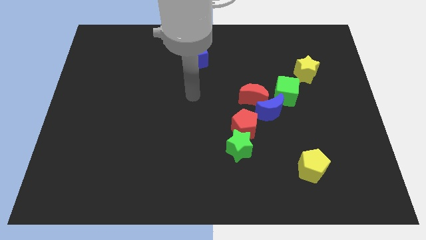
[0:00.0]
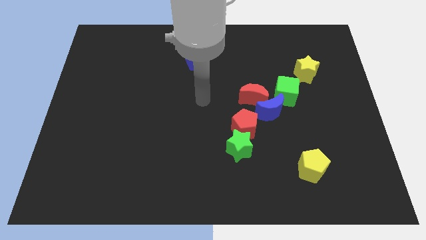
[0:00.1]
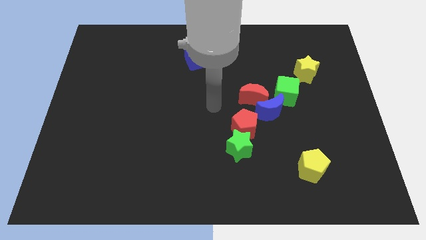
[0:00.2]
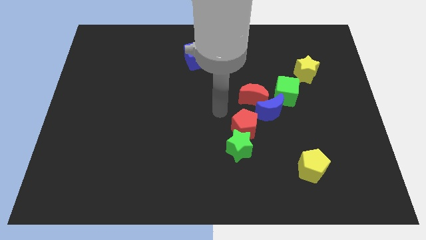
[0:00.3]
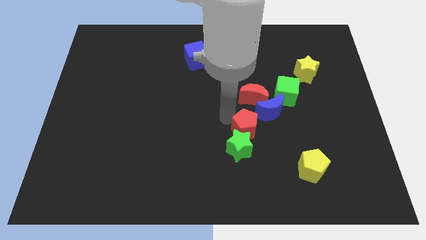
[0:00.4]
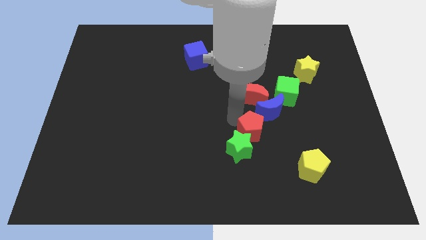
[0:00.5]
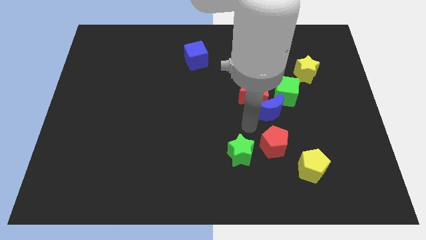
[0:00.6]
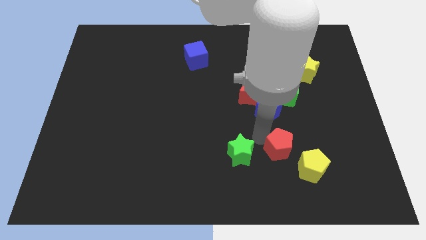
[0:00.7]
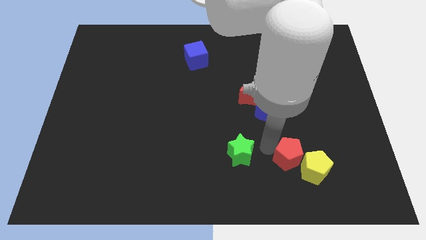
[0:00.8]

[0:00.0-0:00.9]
separate the green star from the red pentagon

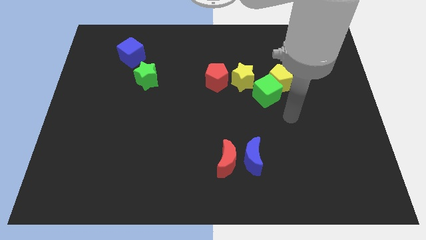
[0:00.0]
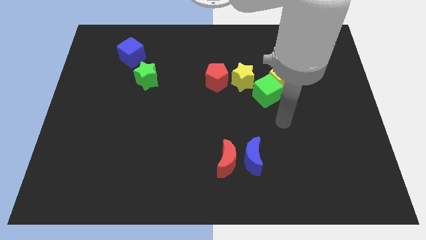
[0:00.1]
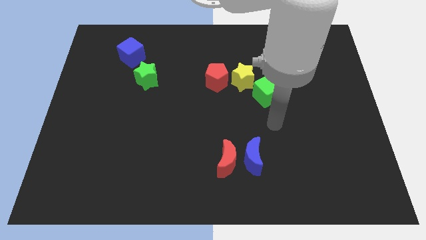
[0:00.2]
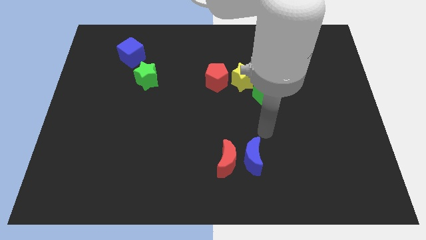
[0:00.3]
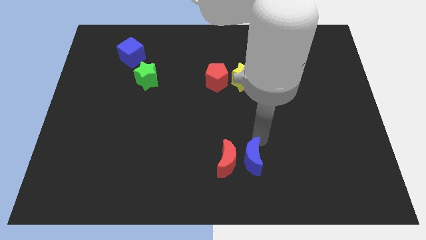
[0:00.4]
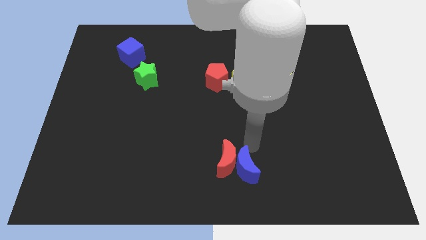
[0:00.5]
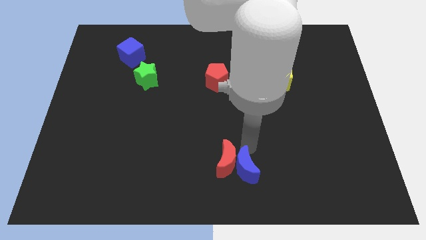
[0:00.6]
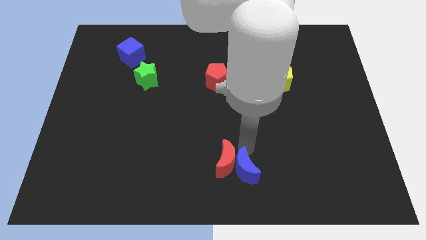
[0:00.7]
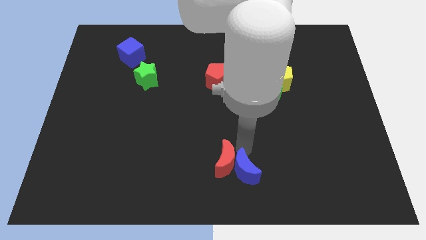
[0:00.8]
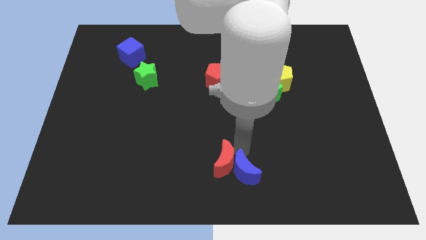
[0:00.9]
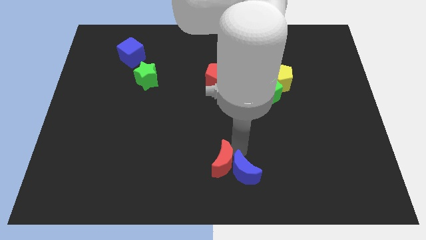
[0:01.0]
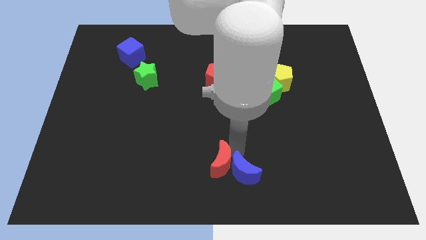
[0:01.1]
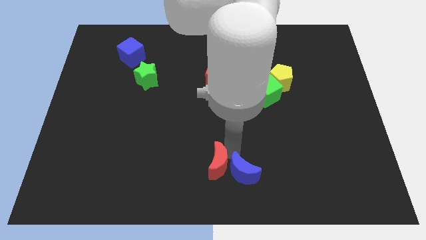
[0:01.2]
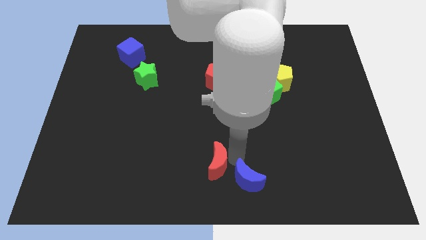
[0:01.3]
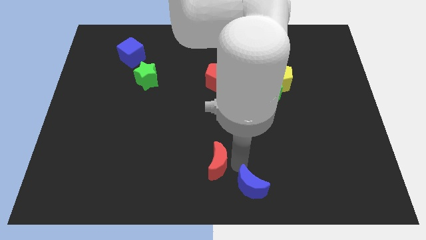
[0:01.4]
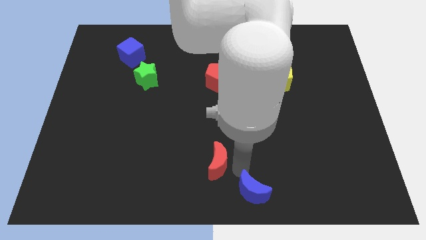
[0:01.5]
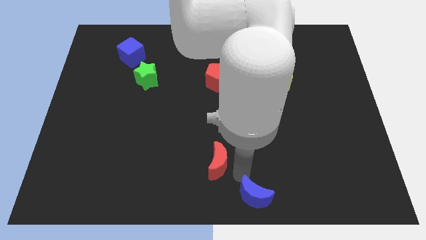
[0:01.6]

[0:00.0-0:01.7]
pull the red moon apart from the blue moon

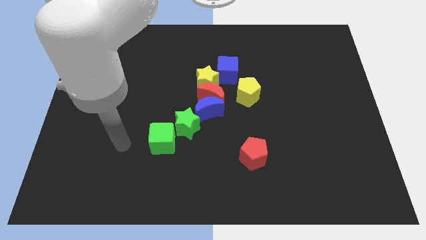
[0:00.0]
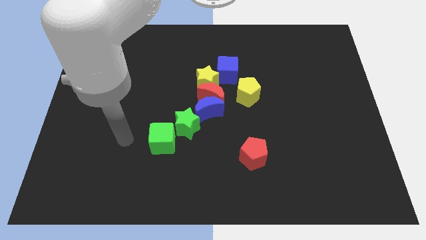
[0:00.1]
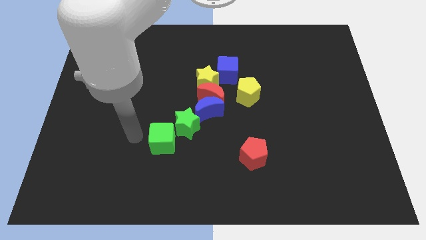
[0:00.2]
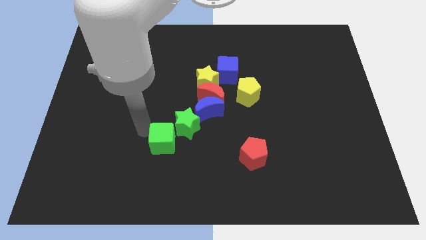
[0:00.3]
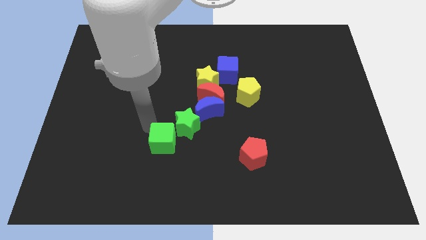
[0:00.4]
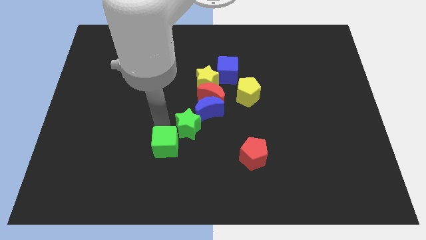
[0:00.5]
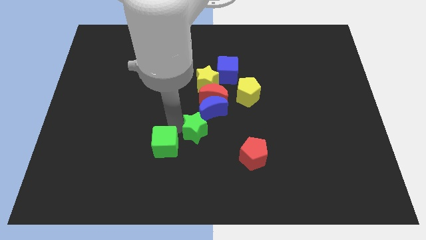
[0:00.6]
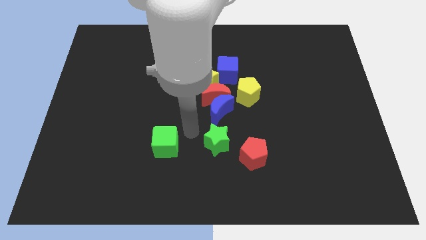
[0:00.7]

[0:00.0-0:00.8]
move the green cube away from the green star

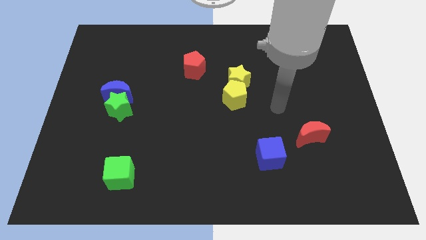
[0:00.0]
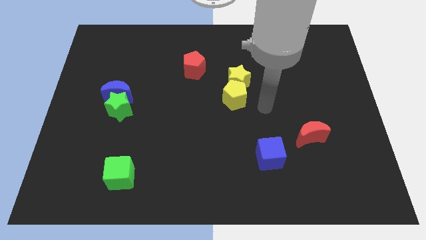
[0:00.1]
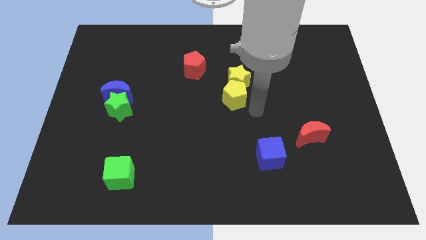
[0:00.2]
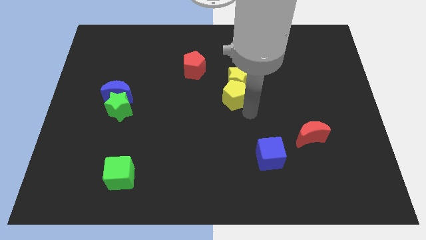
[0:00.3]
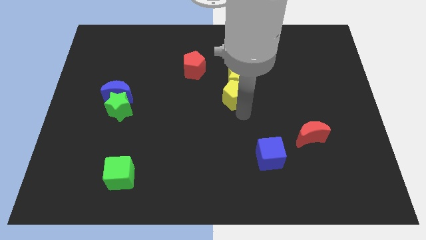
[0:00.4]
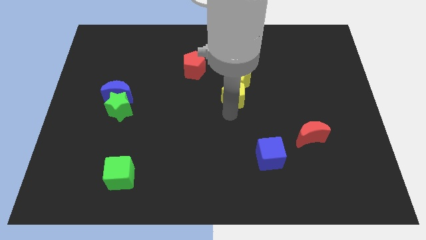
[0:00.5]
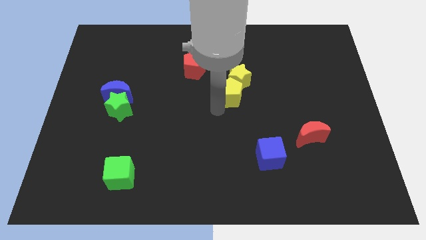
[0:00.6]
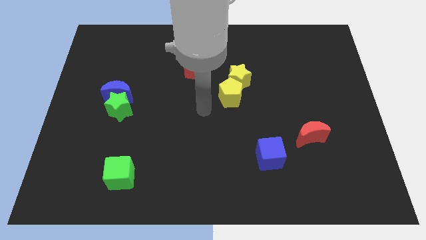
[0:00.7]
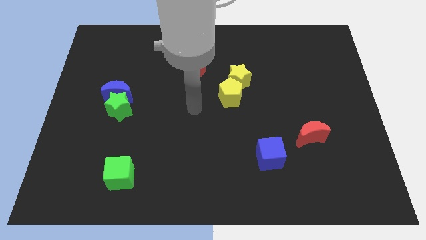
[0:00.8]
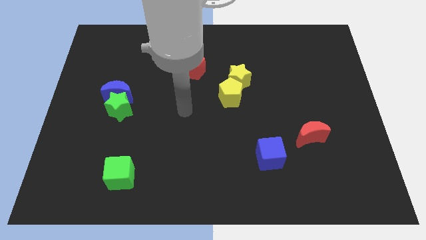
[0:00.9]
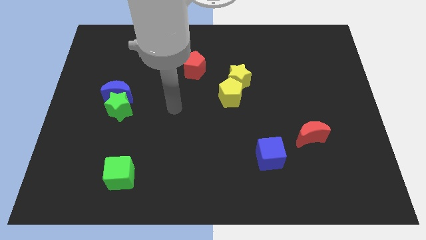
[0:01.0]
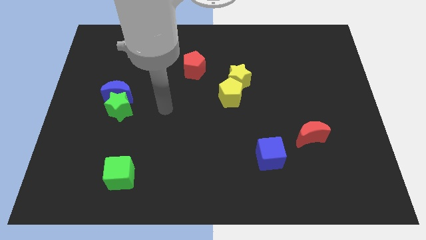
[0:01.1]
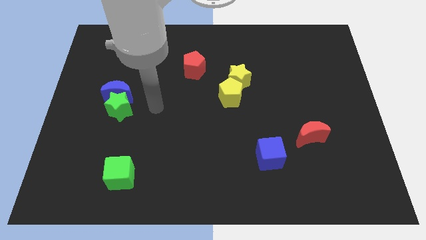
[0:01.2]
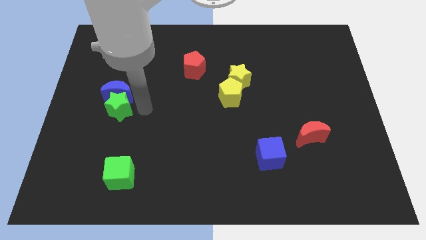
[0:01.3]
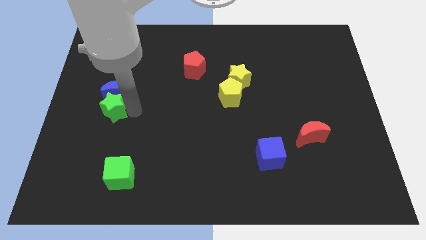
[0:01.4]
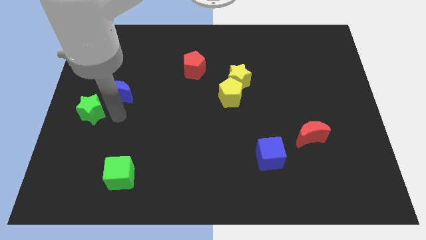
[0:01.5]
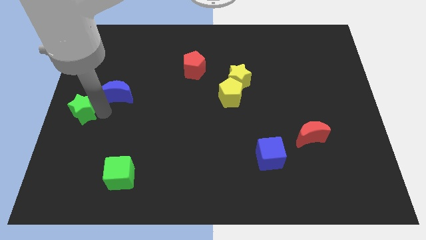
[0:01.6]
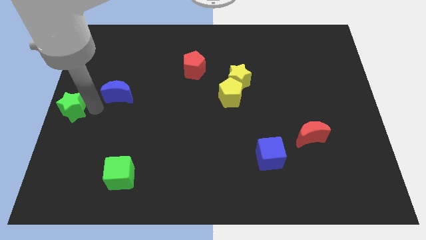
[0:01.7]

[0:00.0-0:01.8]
separate the blue moon from the green star

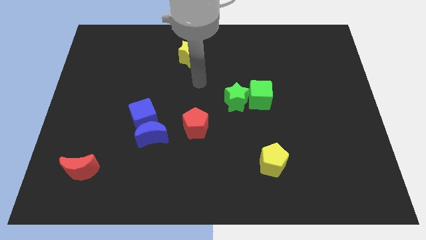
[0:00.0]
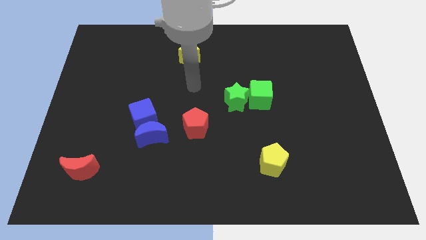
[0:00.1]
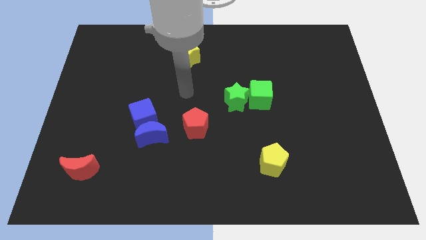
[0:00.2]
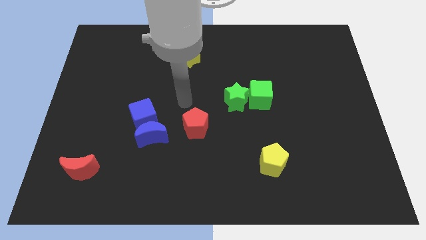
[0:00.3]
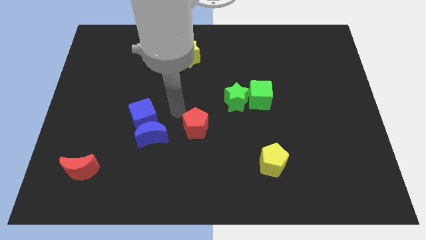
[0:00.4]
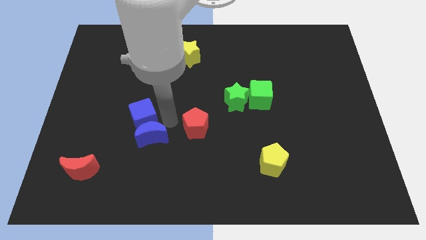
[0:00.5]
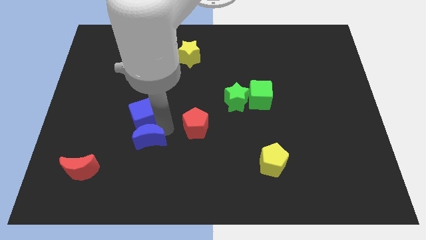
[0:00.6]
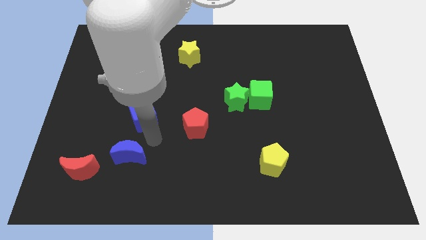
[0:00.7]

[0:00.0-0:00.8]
move the blue cube away from the blue moon

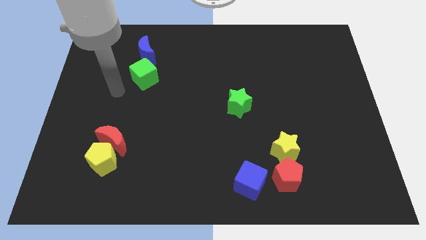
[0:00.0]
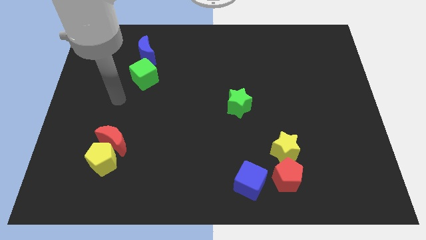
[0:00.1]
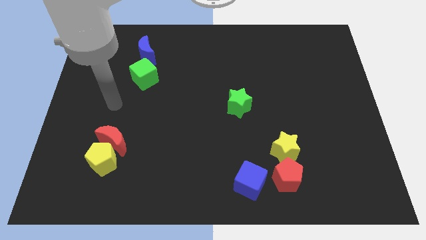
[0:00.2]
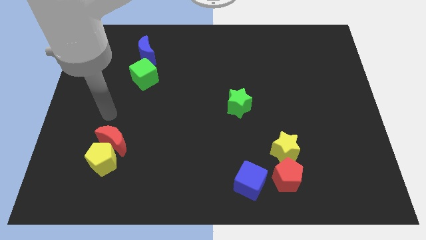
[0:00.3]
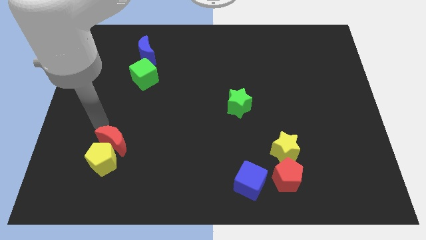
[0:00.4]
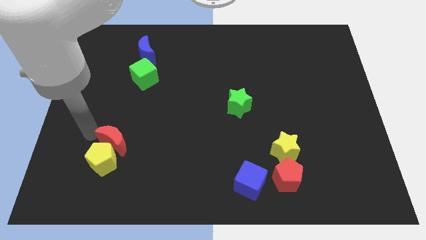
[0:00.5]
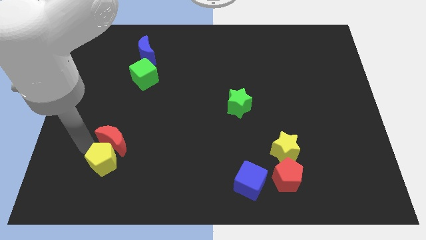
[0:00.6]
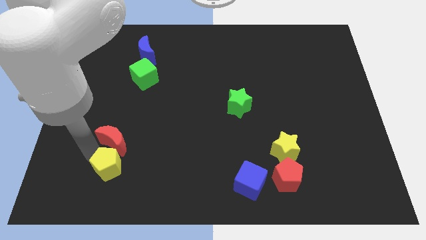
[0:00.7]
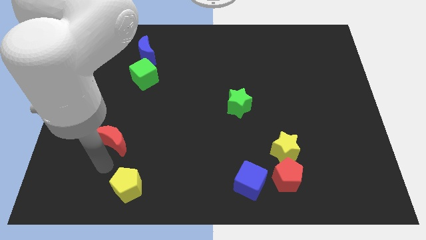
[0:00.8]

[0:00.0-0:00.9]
pull the red moon apart from the yellow pentagon

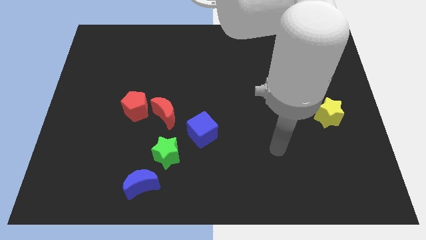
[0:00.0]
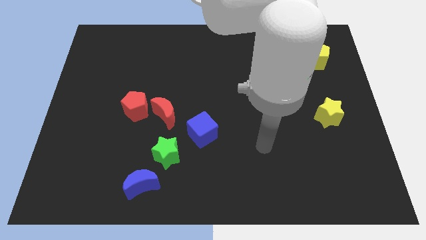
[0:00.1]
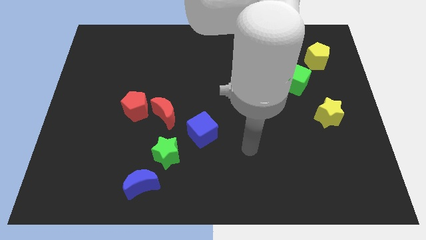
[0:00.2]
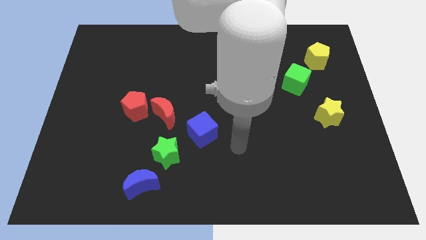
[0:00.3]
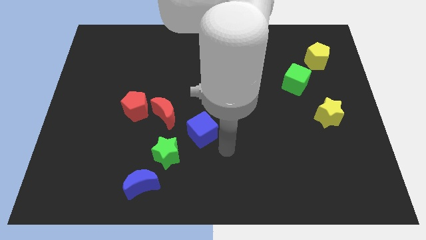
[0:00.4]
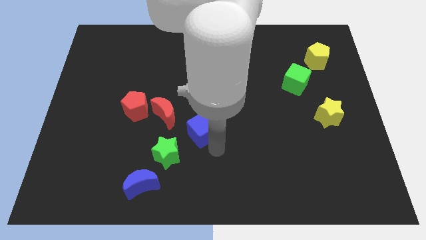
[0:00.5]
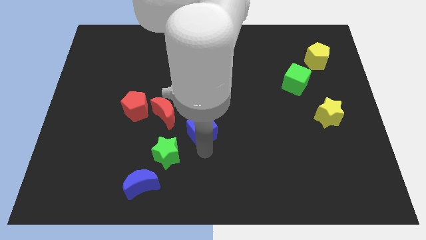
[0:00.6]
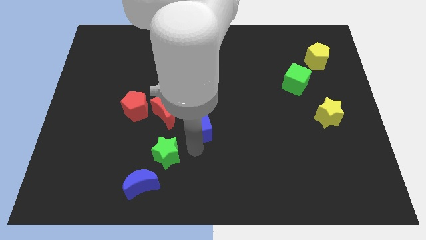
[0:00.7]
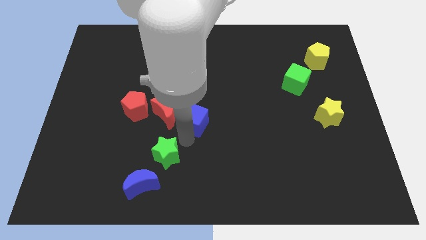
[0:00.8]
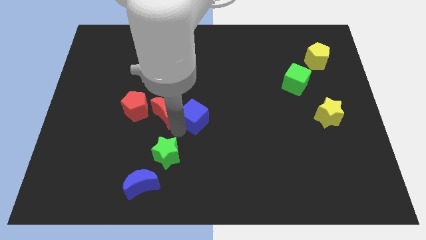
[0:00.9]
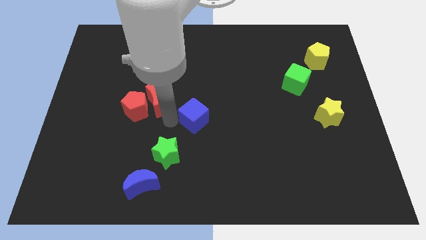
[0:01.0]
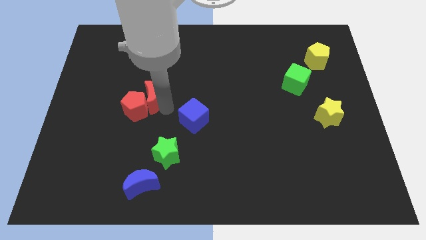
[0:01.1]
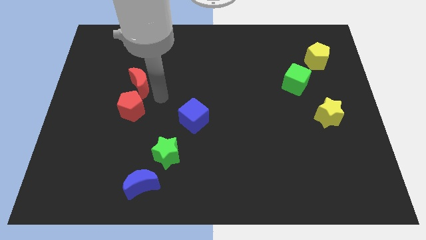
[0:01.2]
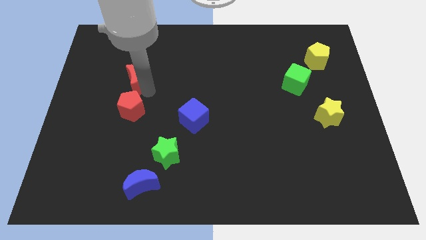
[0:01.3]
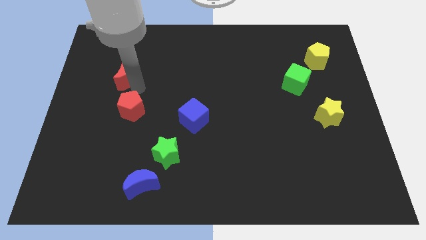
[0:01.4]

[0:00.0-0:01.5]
pull the red pentagon apart from the red moon

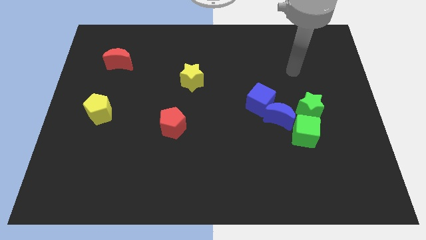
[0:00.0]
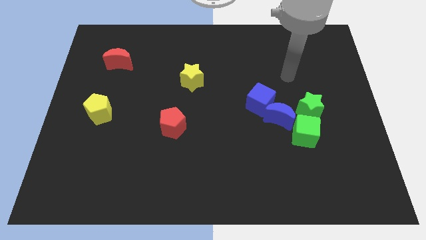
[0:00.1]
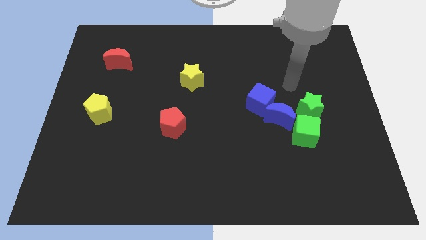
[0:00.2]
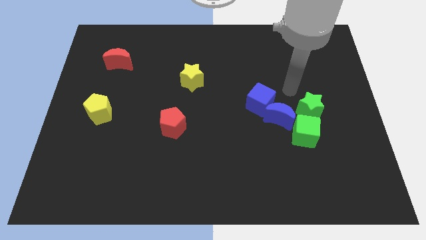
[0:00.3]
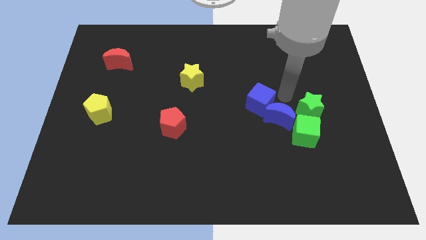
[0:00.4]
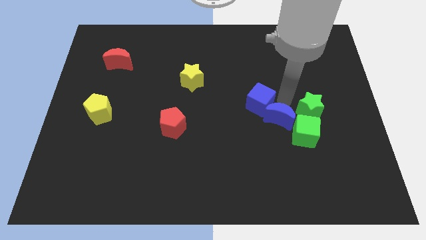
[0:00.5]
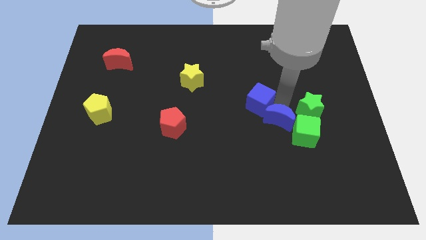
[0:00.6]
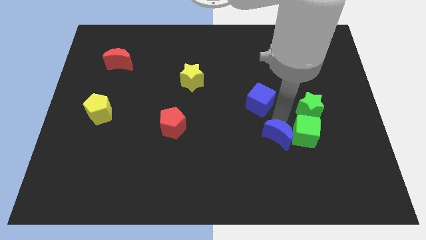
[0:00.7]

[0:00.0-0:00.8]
separate the blue cube from the blue moon
